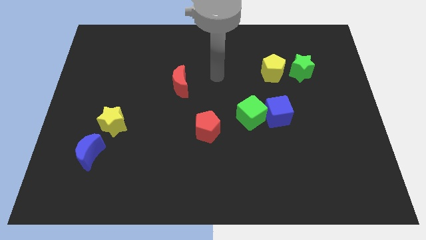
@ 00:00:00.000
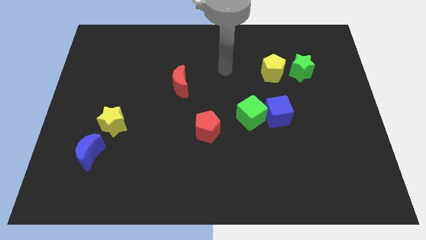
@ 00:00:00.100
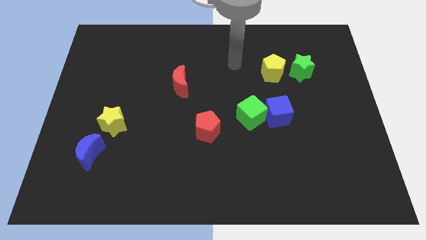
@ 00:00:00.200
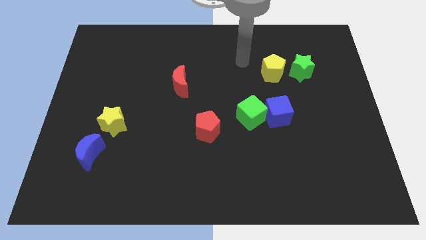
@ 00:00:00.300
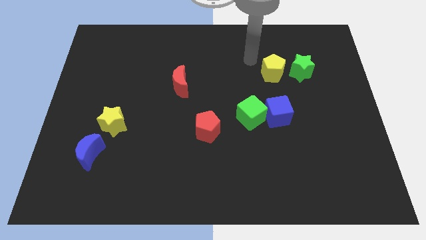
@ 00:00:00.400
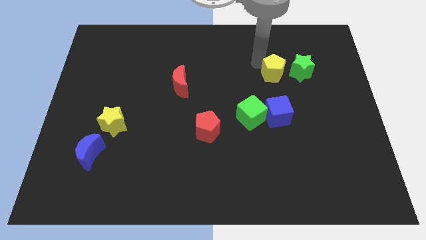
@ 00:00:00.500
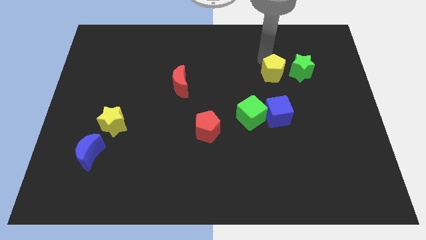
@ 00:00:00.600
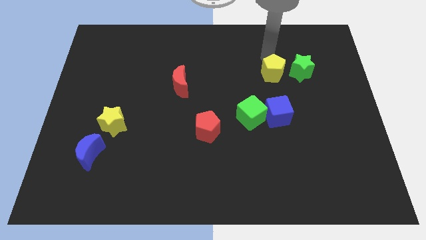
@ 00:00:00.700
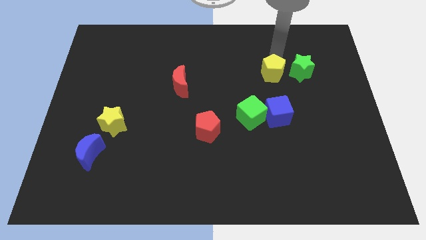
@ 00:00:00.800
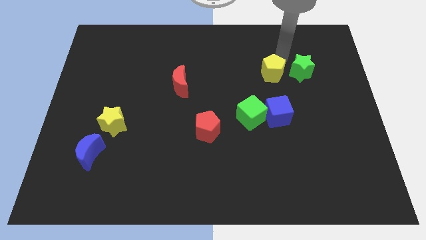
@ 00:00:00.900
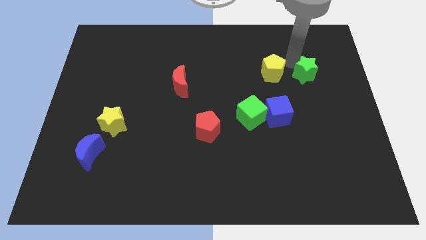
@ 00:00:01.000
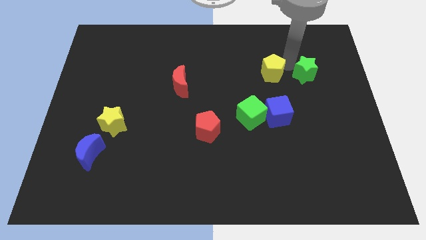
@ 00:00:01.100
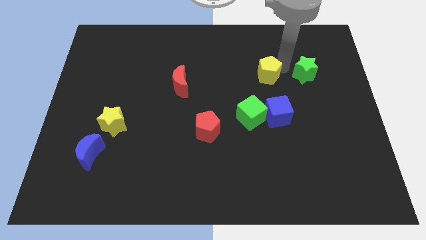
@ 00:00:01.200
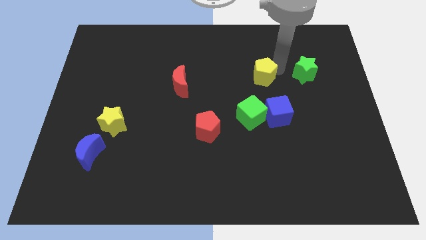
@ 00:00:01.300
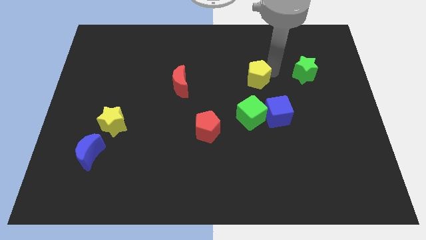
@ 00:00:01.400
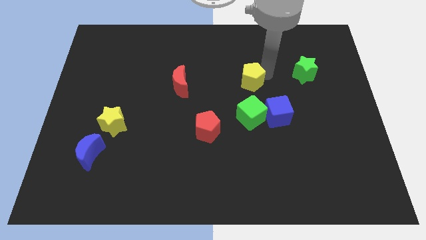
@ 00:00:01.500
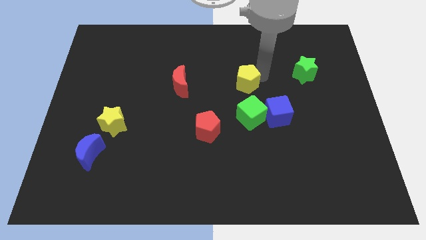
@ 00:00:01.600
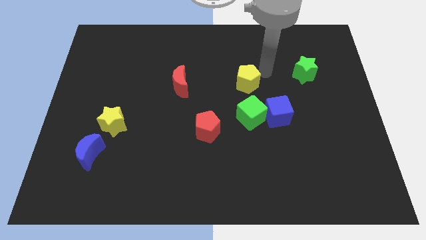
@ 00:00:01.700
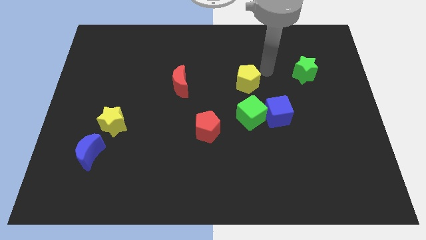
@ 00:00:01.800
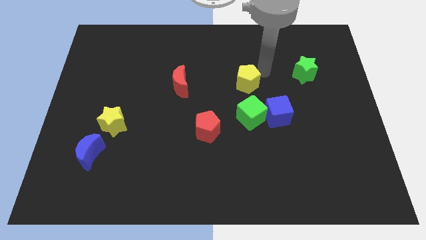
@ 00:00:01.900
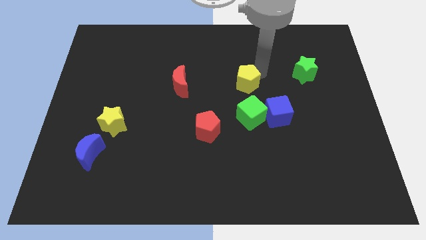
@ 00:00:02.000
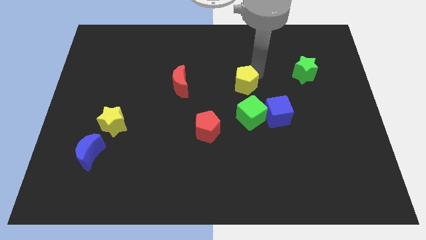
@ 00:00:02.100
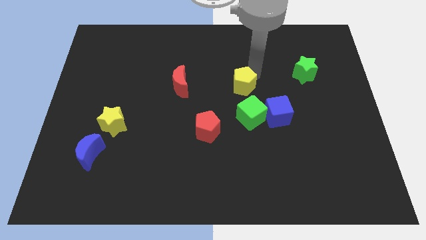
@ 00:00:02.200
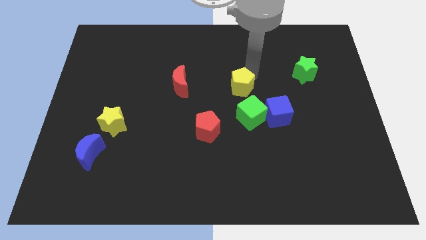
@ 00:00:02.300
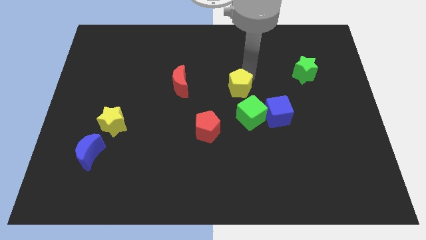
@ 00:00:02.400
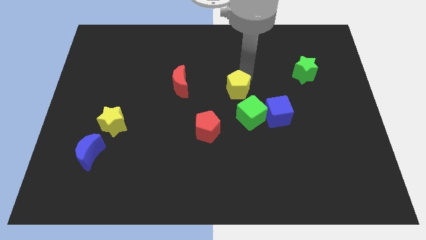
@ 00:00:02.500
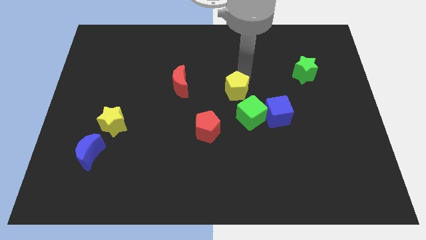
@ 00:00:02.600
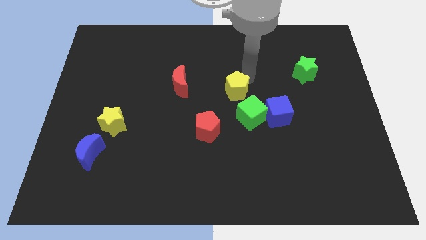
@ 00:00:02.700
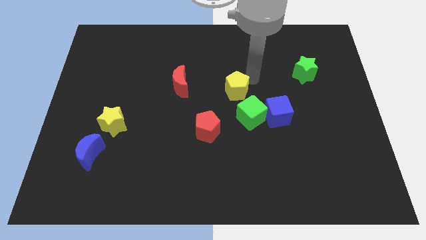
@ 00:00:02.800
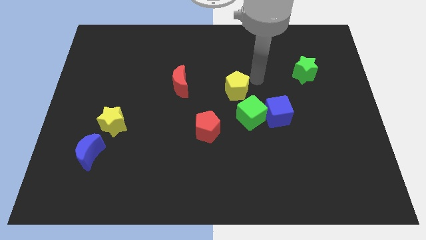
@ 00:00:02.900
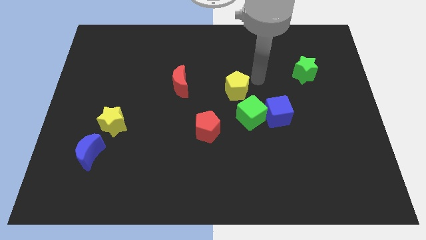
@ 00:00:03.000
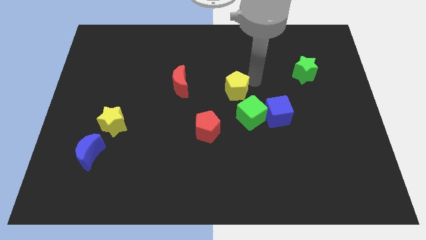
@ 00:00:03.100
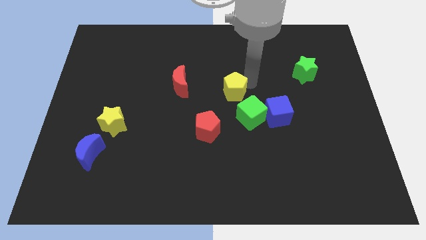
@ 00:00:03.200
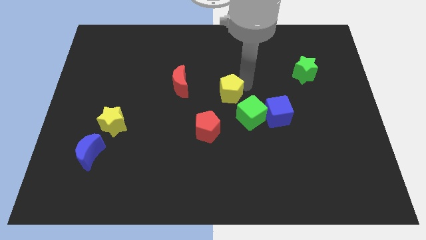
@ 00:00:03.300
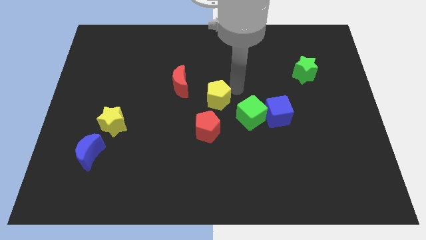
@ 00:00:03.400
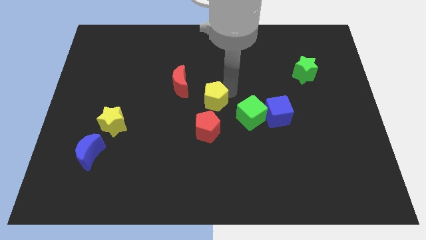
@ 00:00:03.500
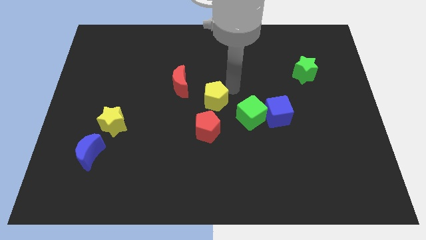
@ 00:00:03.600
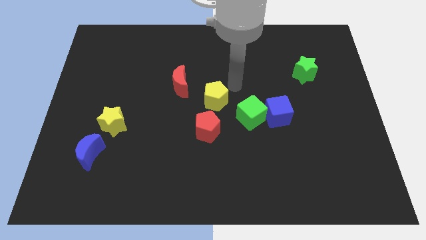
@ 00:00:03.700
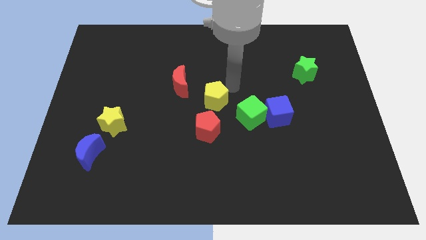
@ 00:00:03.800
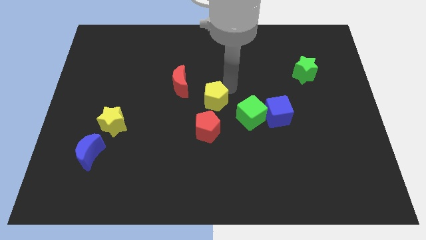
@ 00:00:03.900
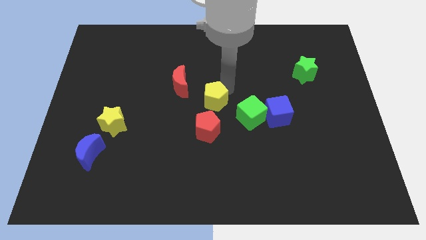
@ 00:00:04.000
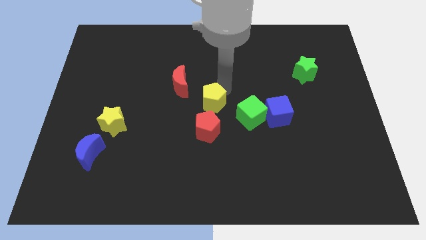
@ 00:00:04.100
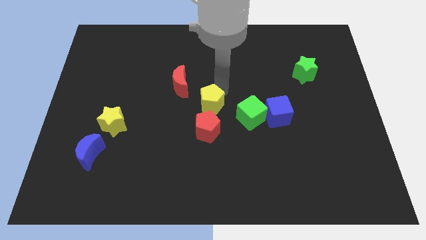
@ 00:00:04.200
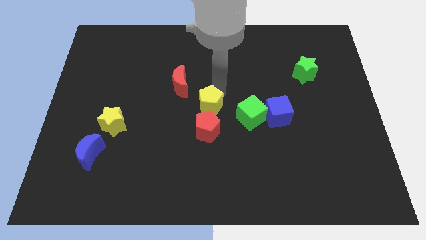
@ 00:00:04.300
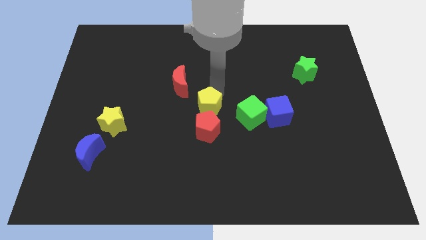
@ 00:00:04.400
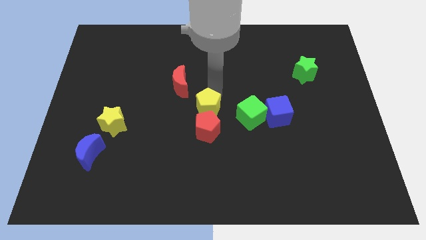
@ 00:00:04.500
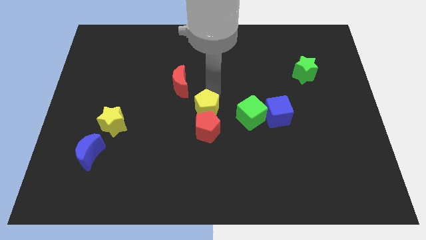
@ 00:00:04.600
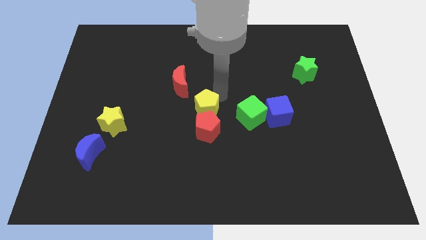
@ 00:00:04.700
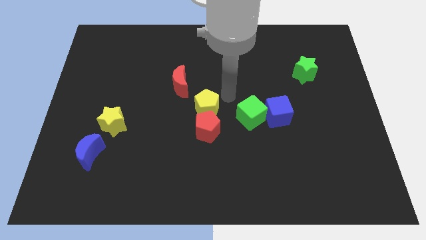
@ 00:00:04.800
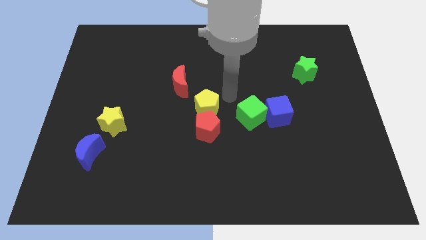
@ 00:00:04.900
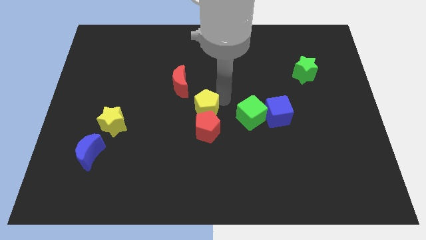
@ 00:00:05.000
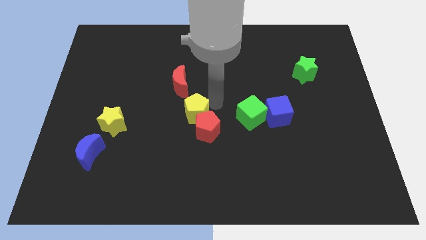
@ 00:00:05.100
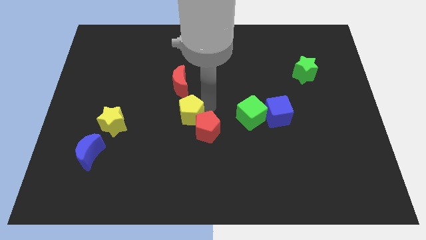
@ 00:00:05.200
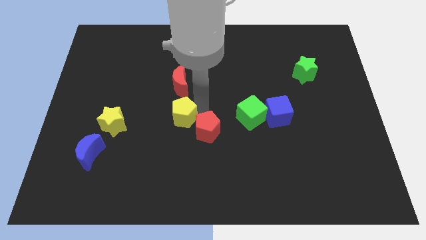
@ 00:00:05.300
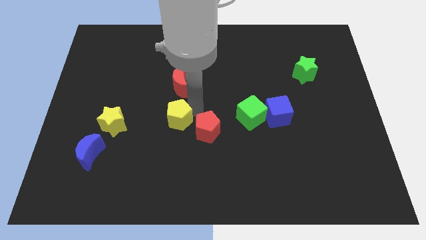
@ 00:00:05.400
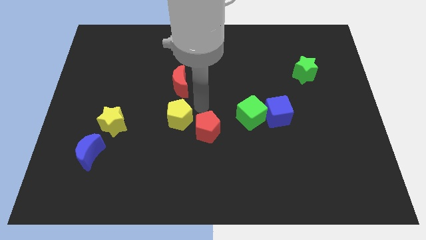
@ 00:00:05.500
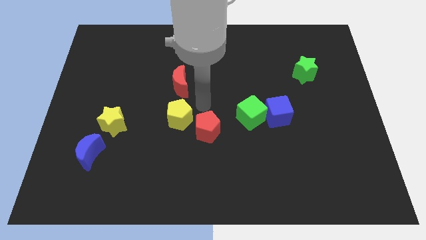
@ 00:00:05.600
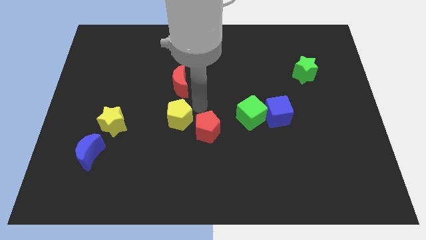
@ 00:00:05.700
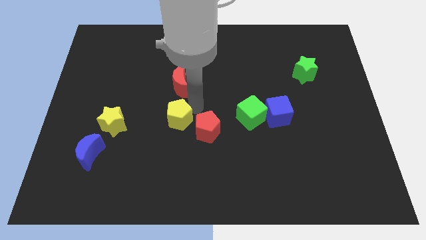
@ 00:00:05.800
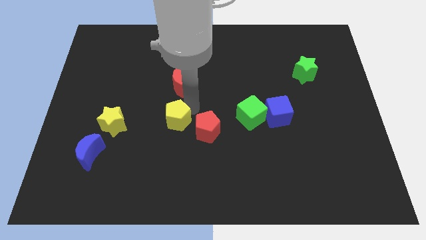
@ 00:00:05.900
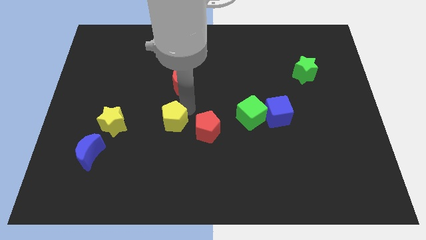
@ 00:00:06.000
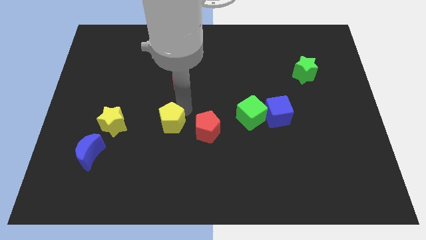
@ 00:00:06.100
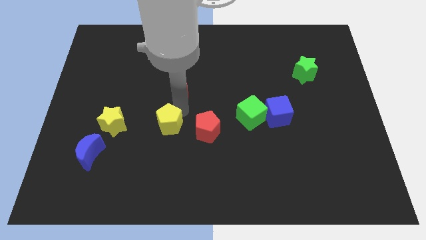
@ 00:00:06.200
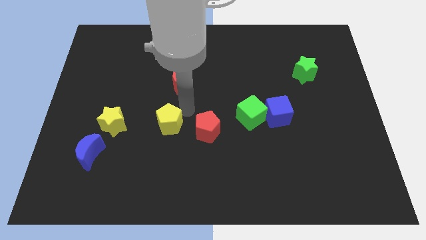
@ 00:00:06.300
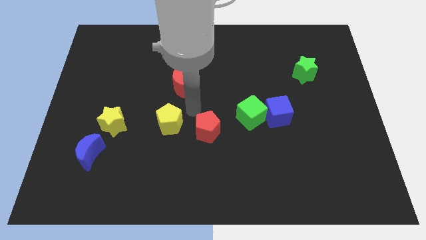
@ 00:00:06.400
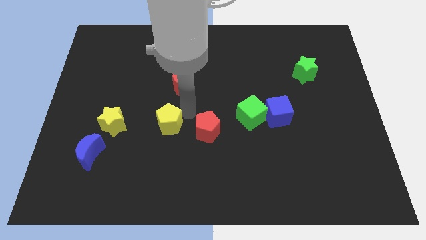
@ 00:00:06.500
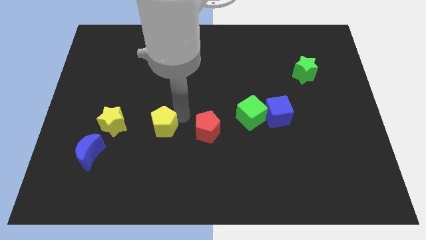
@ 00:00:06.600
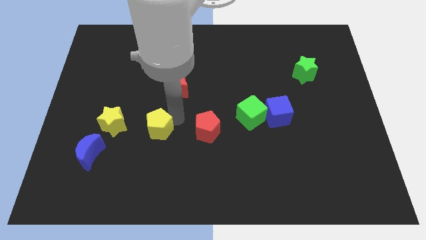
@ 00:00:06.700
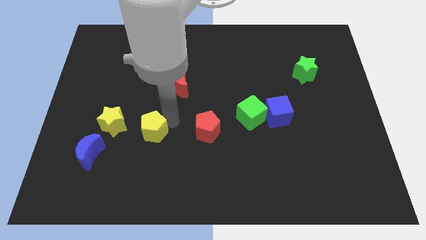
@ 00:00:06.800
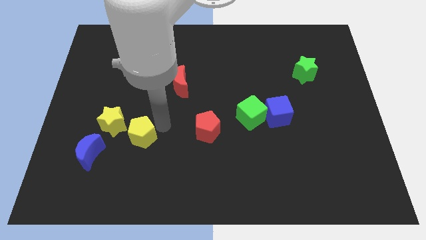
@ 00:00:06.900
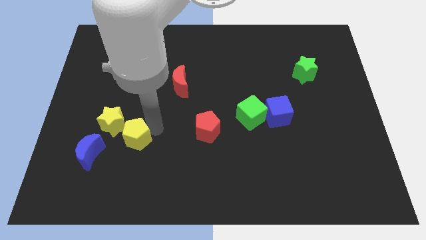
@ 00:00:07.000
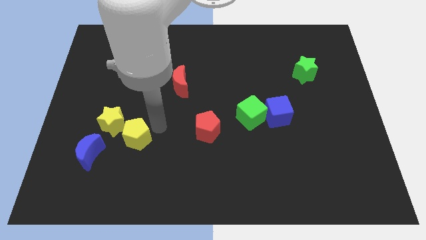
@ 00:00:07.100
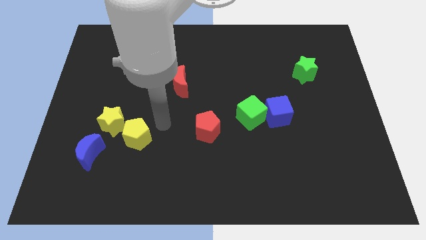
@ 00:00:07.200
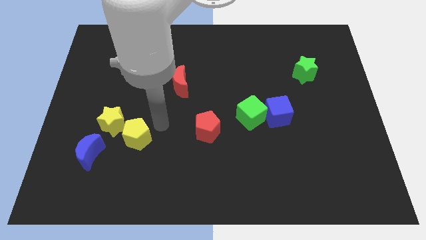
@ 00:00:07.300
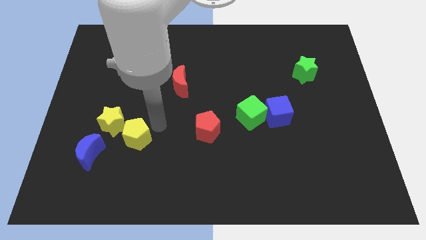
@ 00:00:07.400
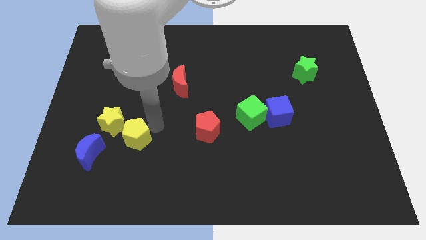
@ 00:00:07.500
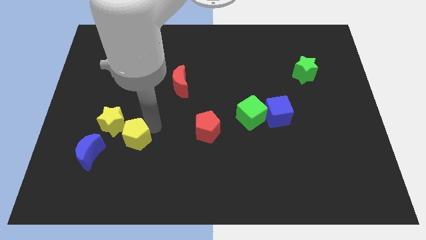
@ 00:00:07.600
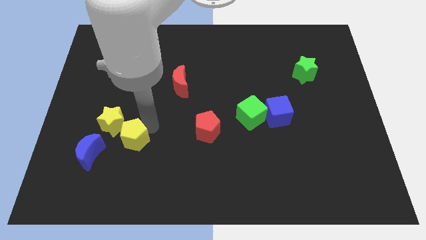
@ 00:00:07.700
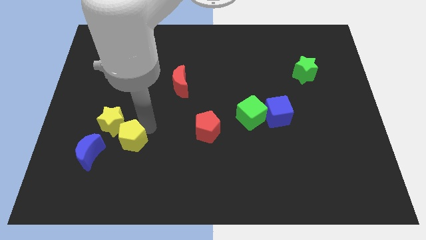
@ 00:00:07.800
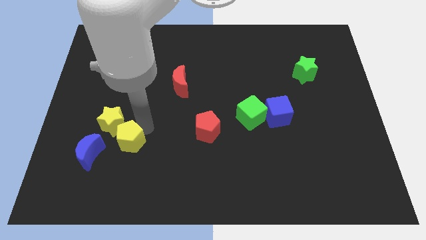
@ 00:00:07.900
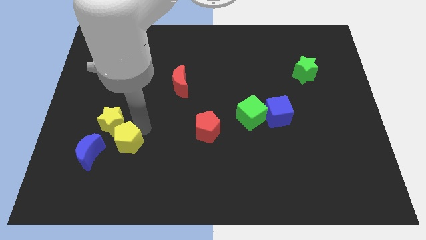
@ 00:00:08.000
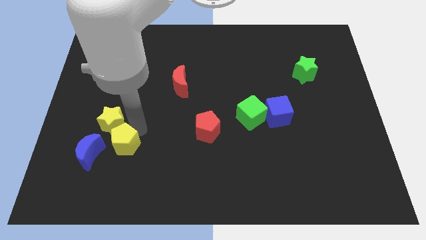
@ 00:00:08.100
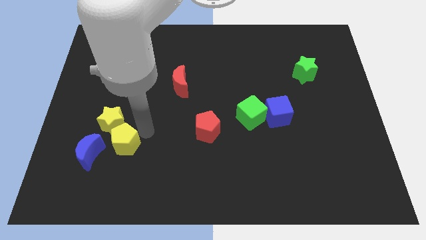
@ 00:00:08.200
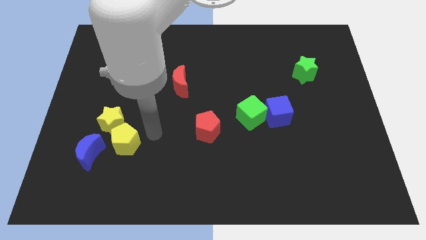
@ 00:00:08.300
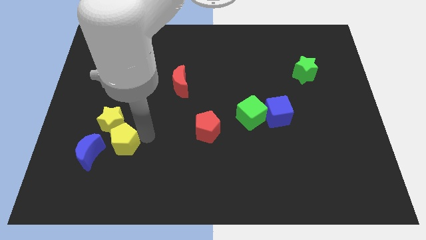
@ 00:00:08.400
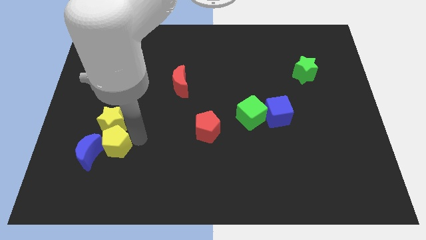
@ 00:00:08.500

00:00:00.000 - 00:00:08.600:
slide the yellow pentagon close to the blue moon
